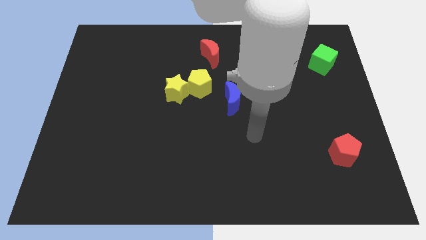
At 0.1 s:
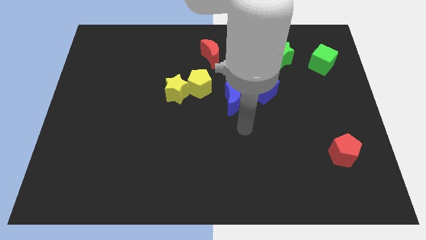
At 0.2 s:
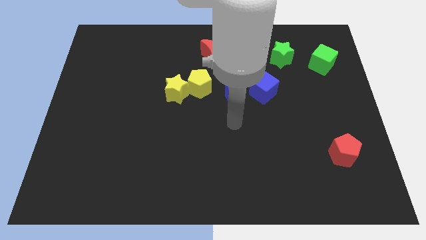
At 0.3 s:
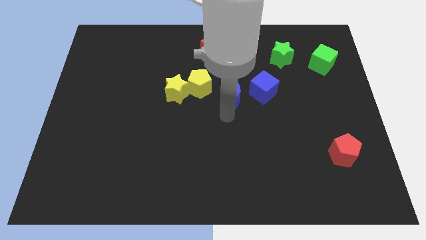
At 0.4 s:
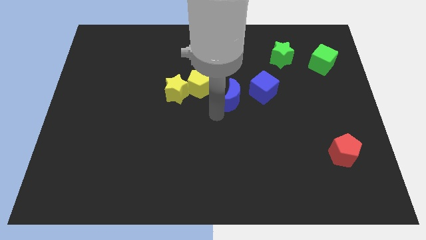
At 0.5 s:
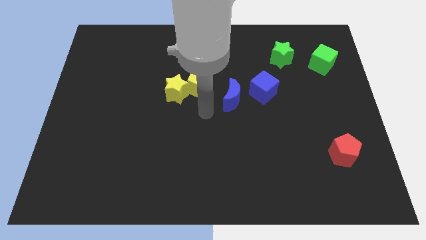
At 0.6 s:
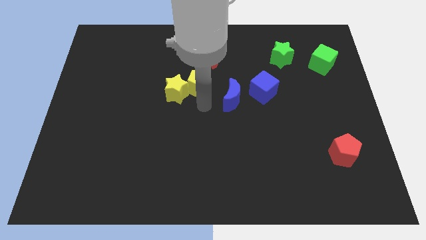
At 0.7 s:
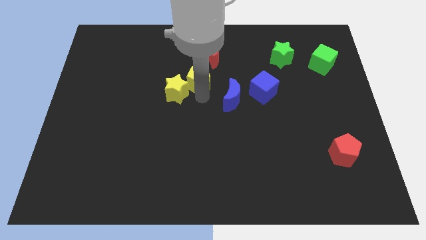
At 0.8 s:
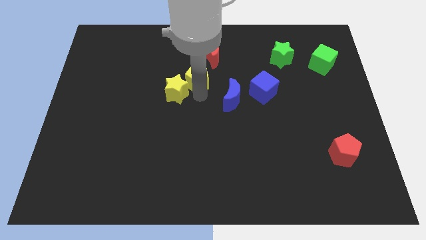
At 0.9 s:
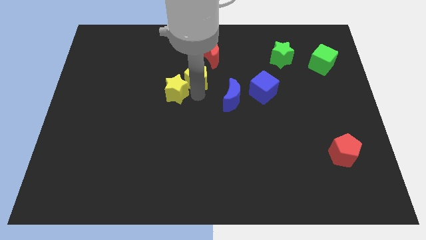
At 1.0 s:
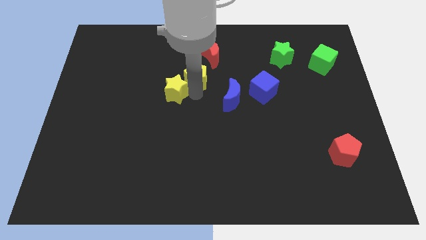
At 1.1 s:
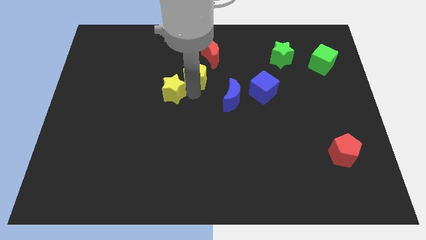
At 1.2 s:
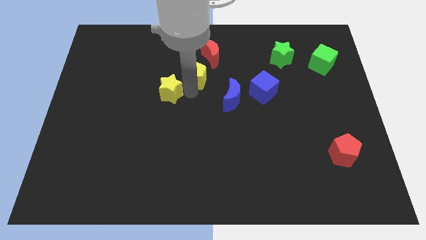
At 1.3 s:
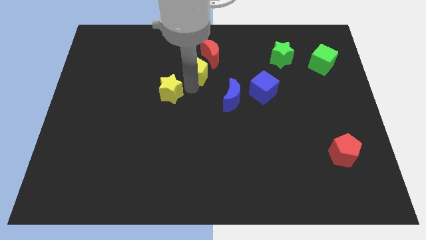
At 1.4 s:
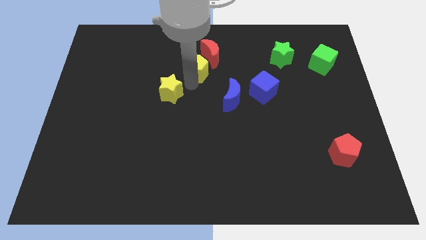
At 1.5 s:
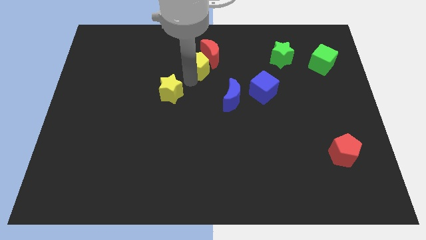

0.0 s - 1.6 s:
pull the yellow star apart from the yellow pentagon

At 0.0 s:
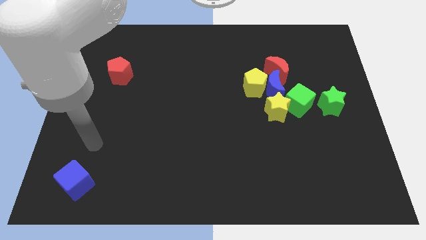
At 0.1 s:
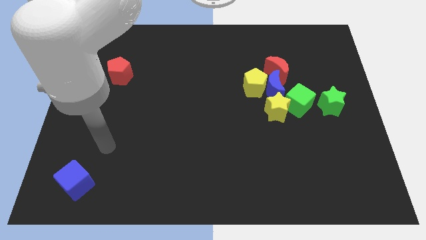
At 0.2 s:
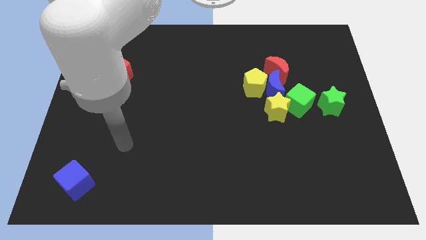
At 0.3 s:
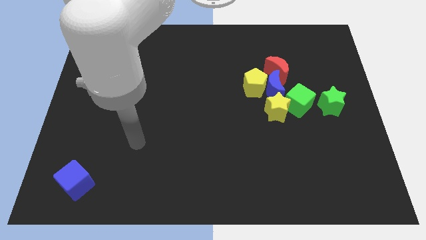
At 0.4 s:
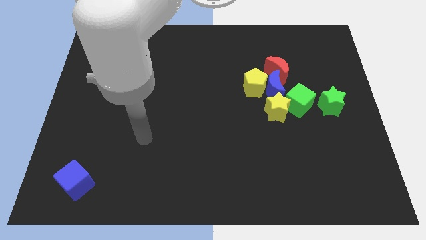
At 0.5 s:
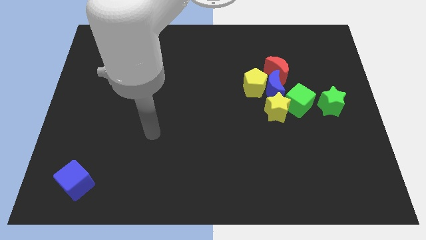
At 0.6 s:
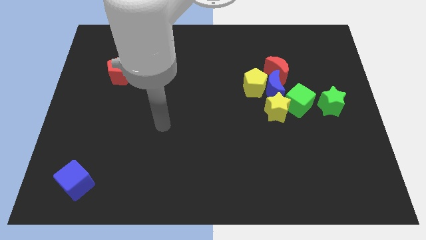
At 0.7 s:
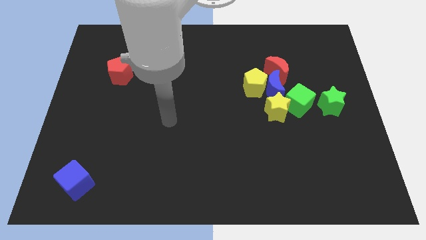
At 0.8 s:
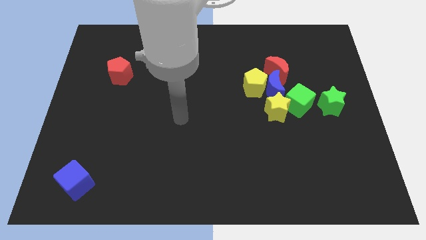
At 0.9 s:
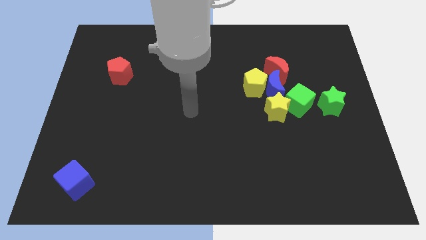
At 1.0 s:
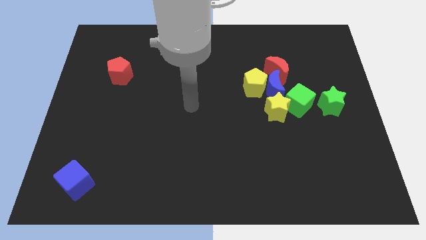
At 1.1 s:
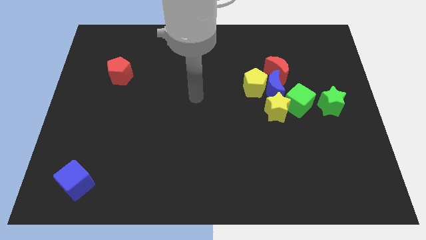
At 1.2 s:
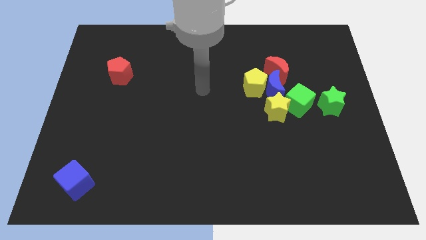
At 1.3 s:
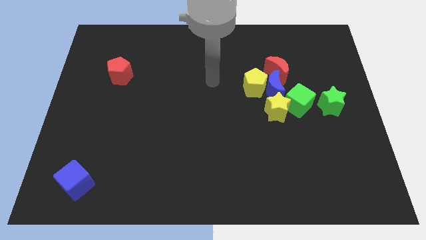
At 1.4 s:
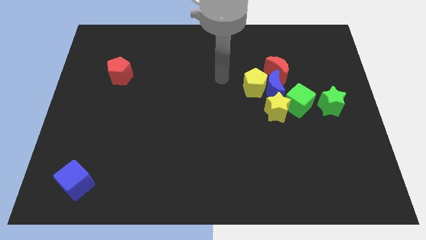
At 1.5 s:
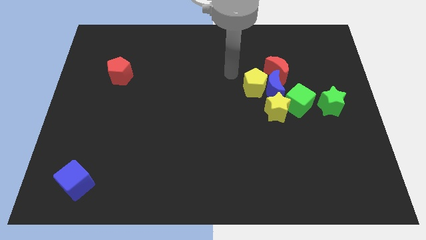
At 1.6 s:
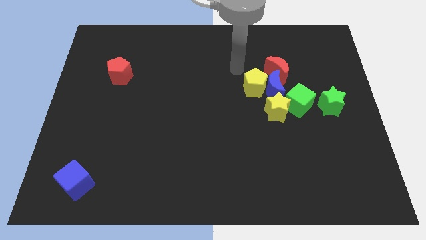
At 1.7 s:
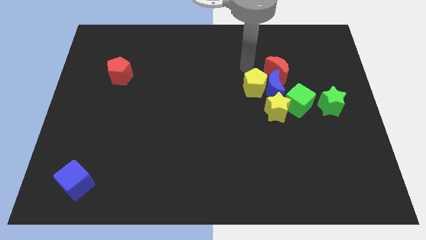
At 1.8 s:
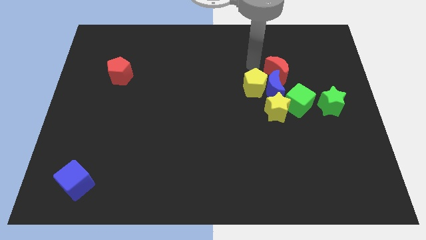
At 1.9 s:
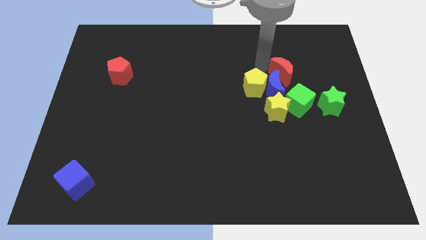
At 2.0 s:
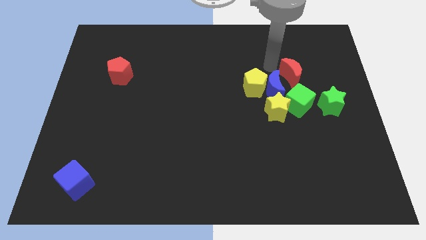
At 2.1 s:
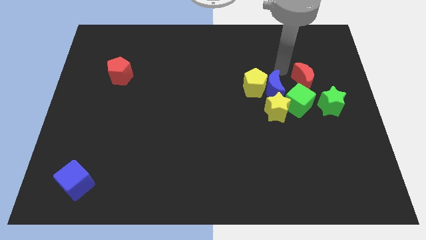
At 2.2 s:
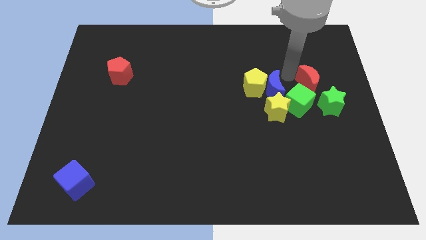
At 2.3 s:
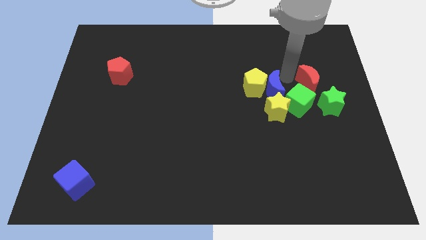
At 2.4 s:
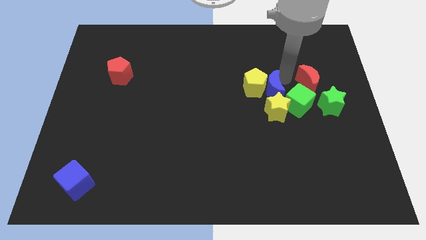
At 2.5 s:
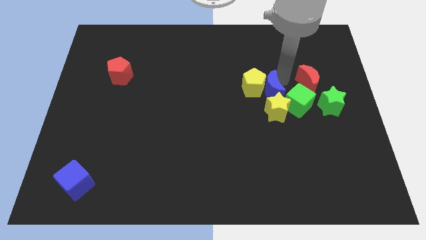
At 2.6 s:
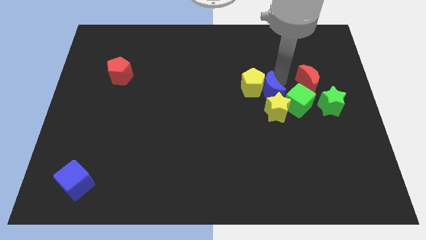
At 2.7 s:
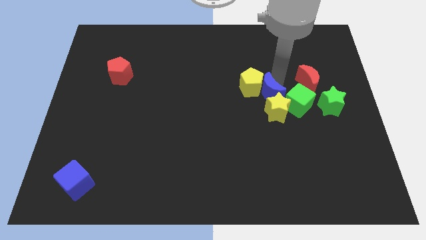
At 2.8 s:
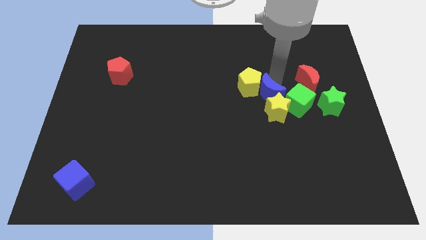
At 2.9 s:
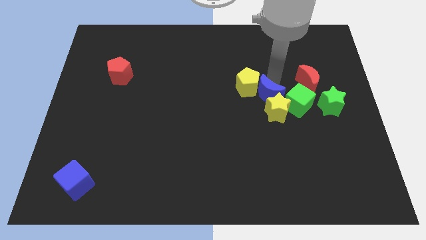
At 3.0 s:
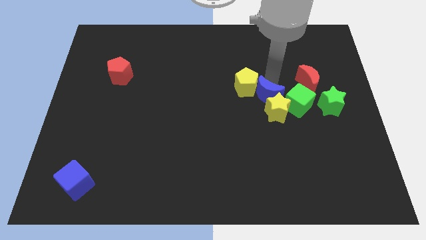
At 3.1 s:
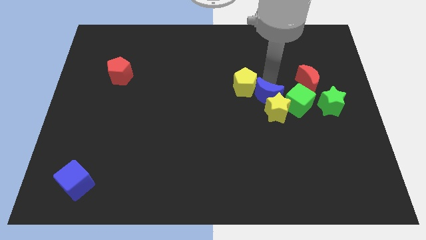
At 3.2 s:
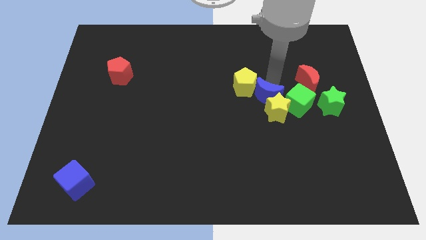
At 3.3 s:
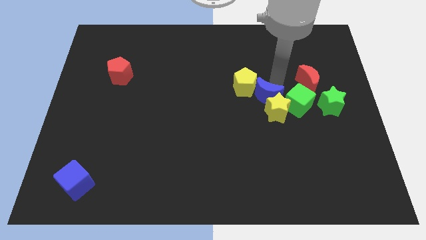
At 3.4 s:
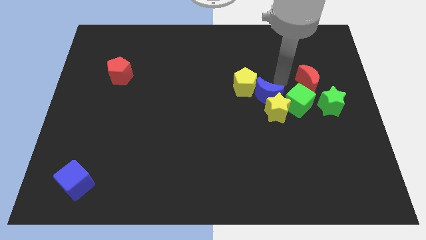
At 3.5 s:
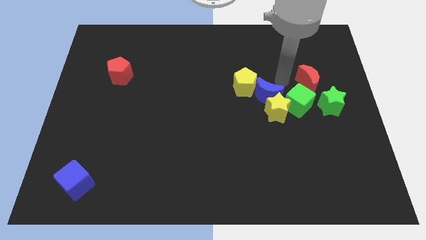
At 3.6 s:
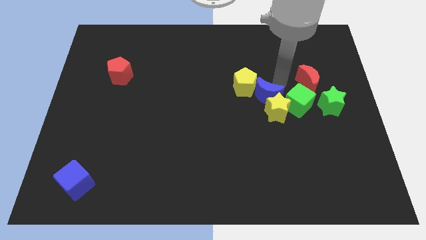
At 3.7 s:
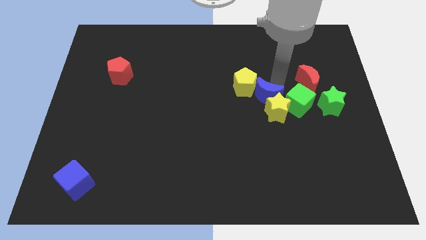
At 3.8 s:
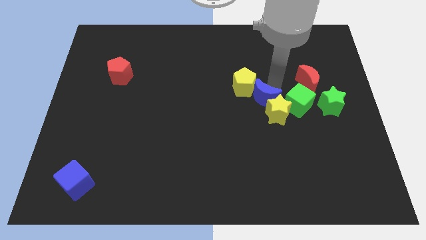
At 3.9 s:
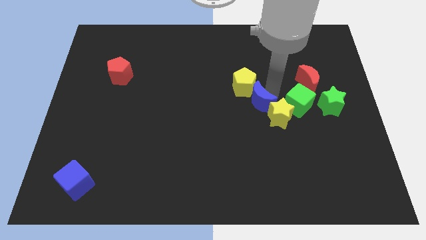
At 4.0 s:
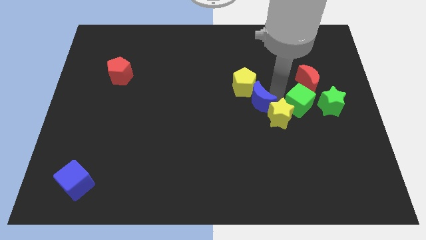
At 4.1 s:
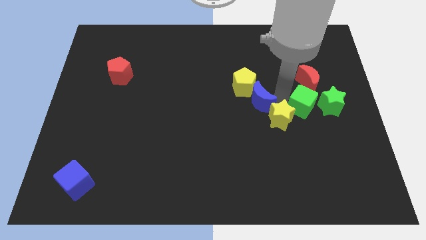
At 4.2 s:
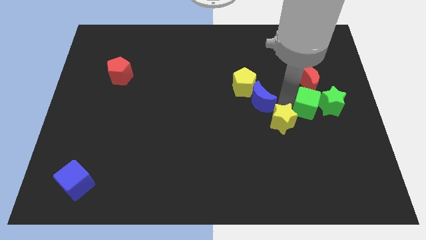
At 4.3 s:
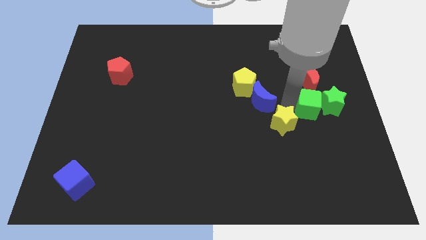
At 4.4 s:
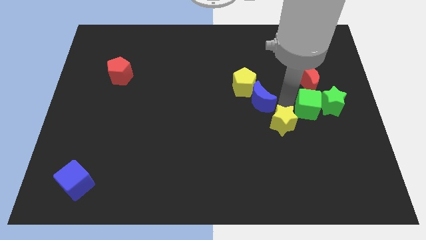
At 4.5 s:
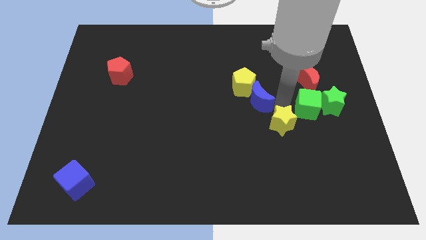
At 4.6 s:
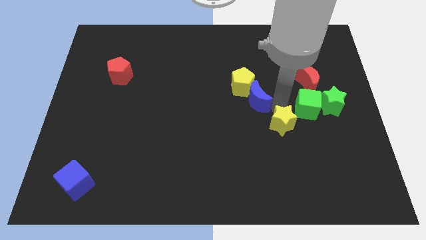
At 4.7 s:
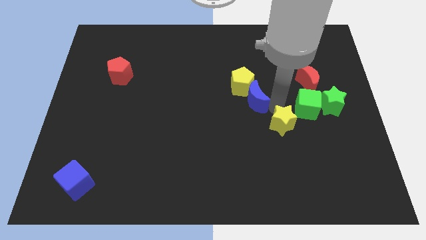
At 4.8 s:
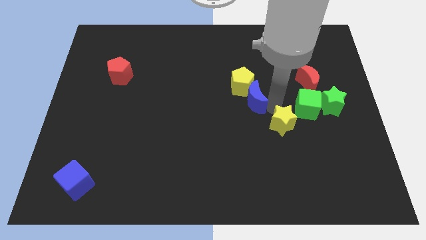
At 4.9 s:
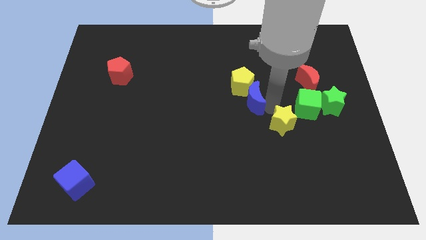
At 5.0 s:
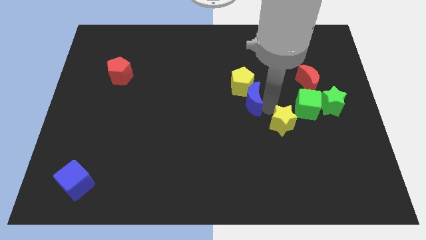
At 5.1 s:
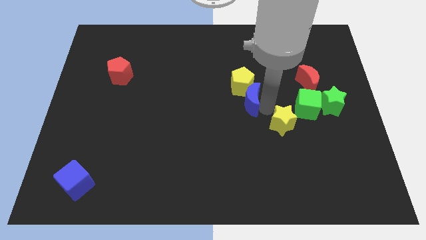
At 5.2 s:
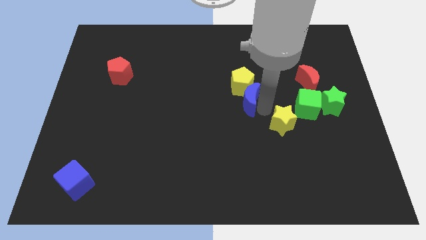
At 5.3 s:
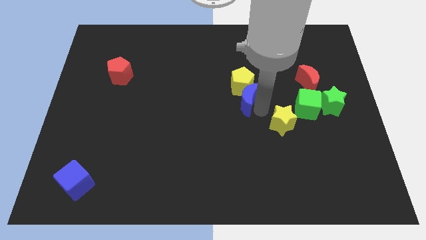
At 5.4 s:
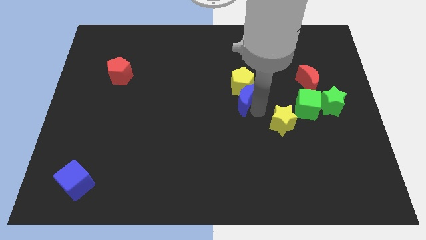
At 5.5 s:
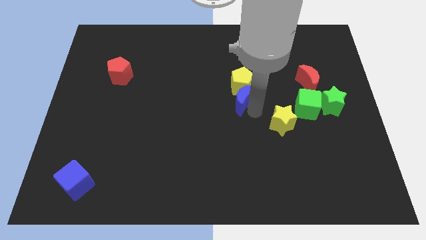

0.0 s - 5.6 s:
pull the blue moon apart from the clump

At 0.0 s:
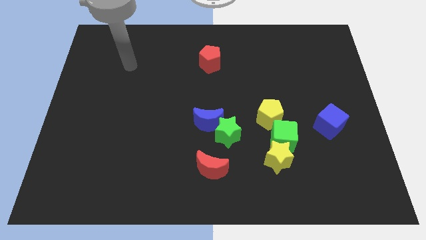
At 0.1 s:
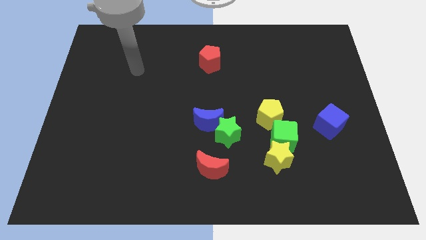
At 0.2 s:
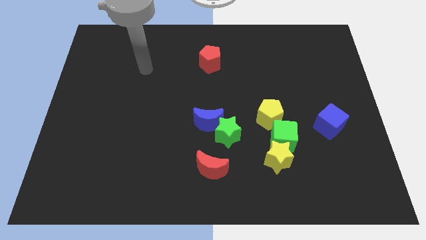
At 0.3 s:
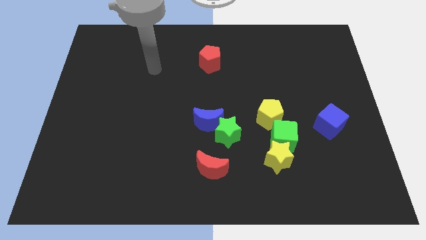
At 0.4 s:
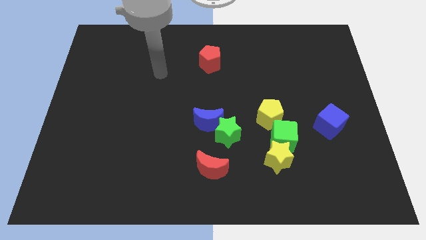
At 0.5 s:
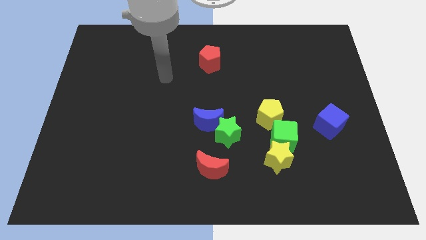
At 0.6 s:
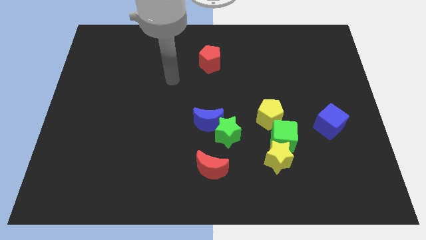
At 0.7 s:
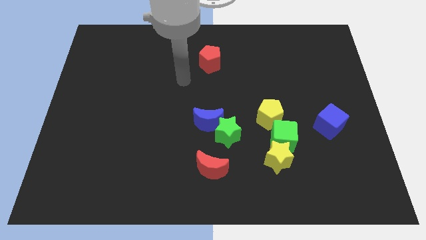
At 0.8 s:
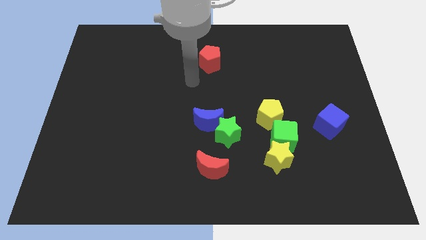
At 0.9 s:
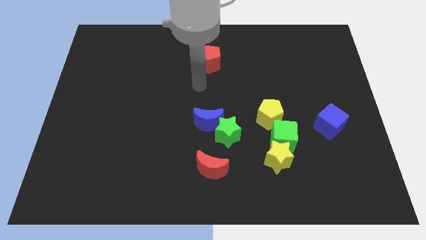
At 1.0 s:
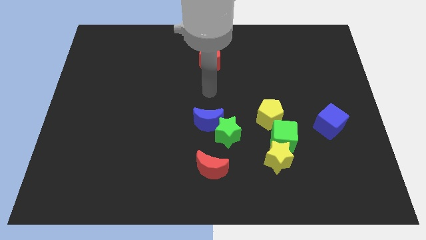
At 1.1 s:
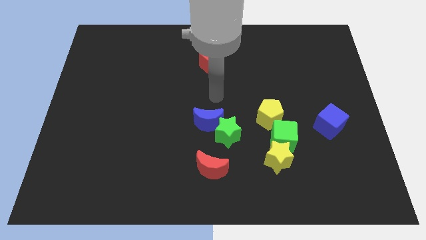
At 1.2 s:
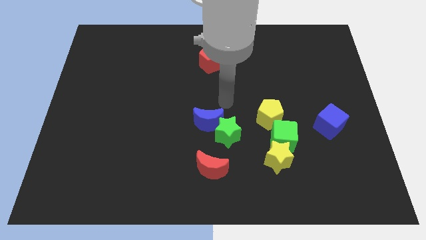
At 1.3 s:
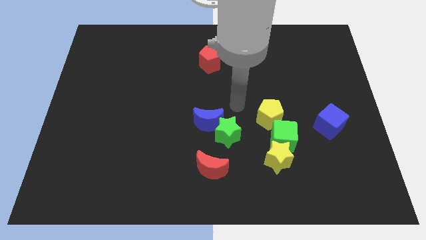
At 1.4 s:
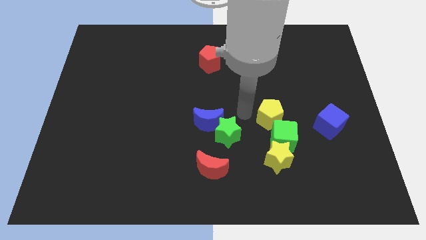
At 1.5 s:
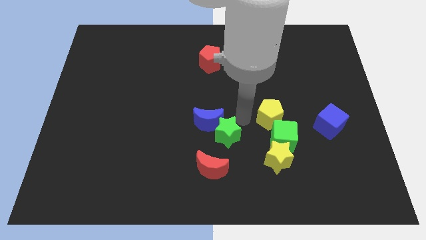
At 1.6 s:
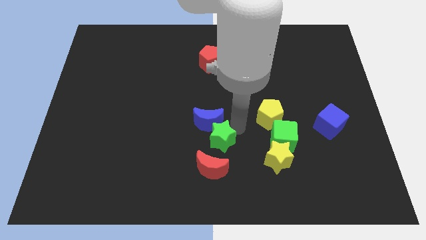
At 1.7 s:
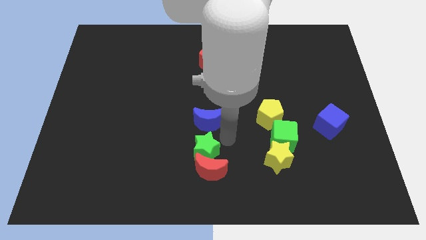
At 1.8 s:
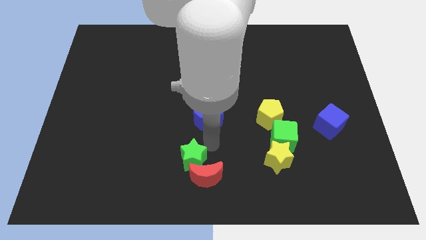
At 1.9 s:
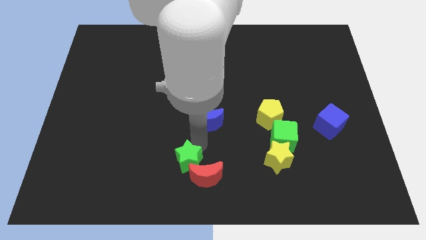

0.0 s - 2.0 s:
separate the blue moon from the green star
